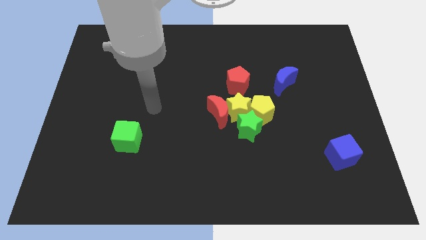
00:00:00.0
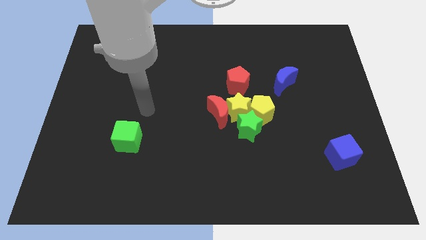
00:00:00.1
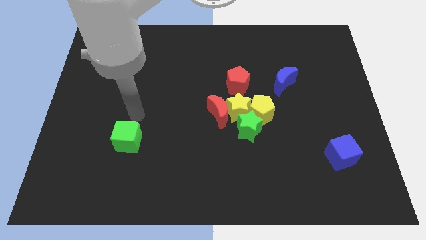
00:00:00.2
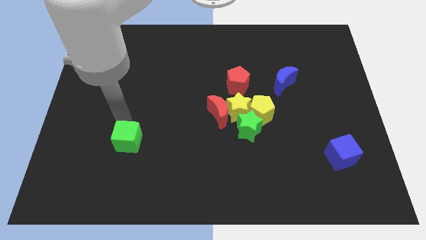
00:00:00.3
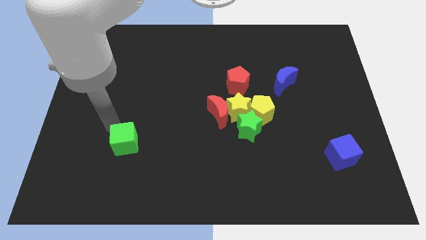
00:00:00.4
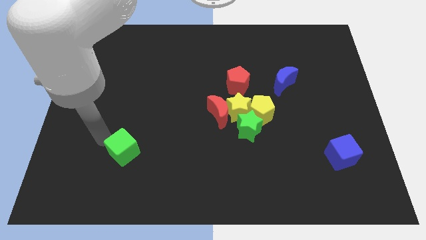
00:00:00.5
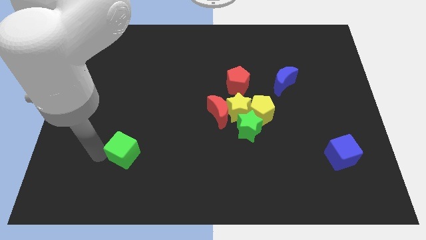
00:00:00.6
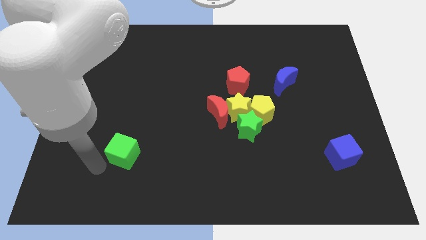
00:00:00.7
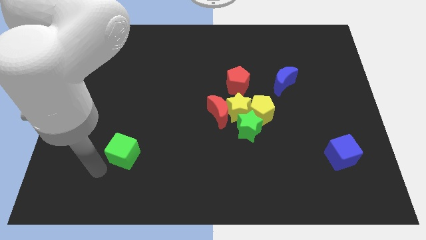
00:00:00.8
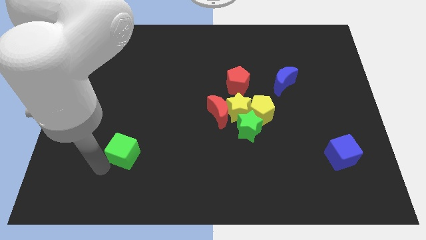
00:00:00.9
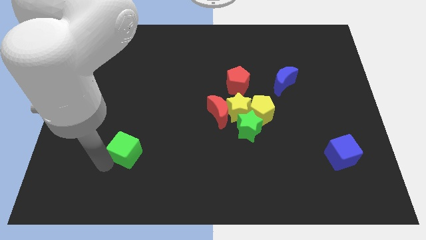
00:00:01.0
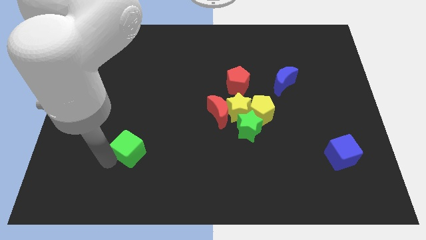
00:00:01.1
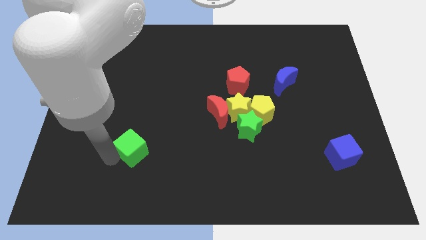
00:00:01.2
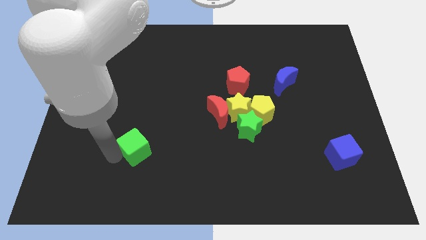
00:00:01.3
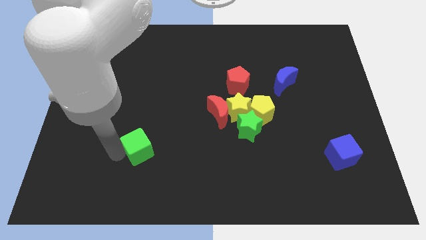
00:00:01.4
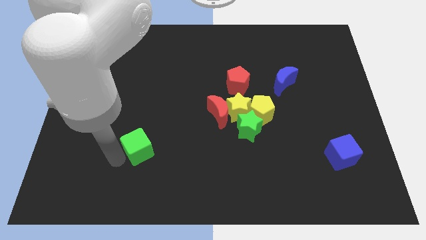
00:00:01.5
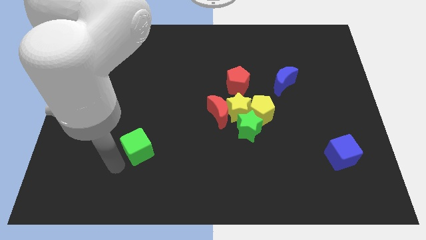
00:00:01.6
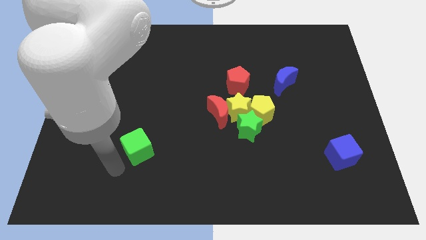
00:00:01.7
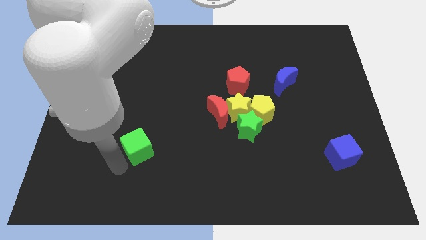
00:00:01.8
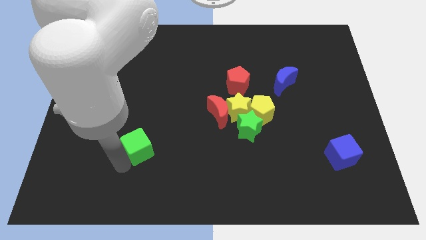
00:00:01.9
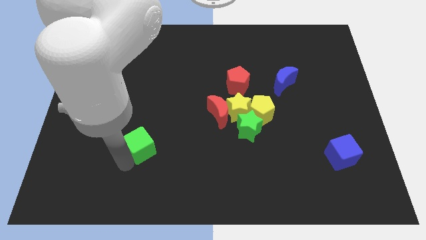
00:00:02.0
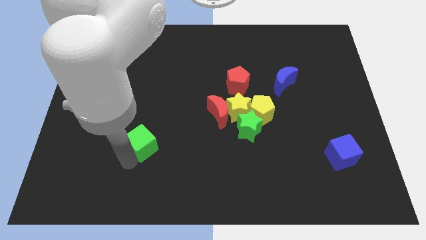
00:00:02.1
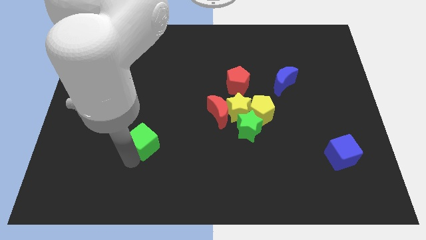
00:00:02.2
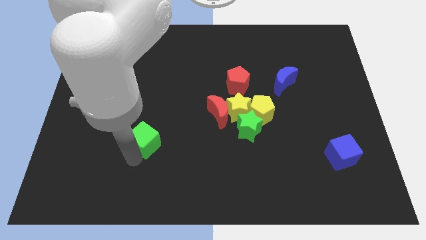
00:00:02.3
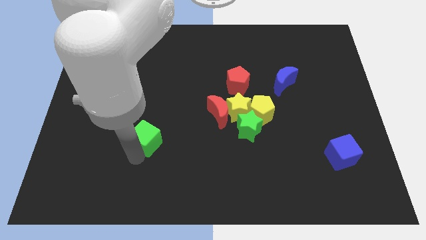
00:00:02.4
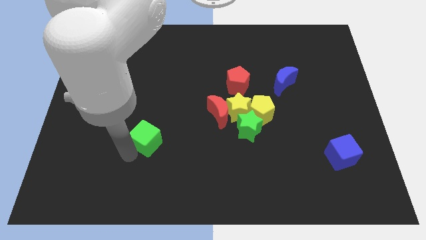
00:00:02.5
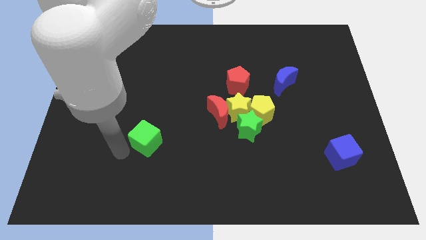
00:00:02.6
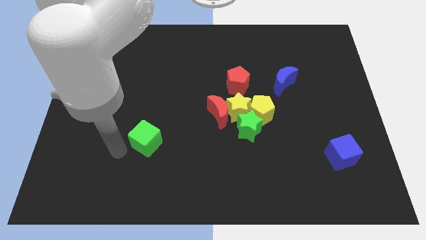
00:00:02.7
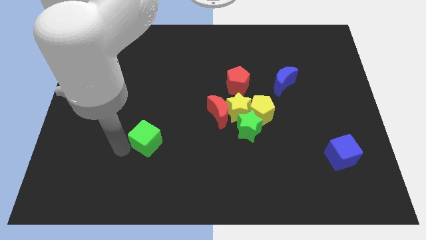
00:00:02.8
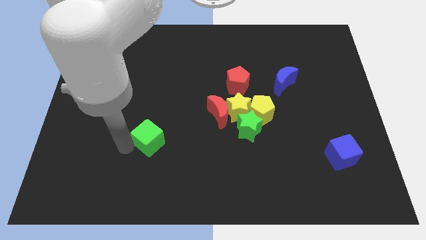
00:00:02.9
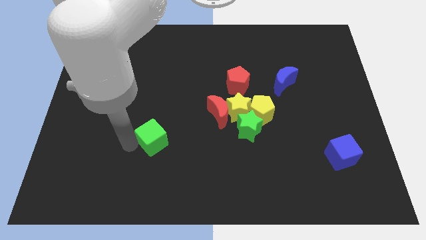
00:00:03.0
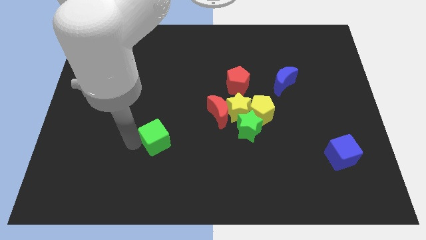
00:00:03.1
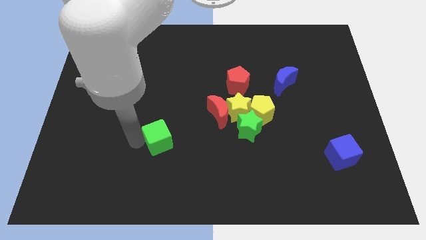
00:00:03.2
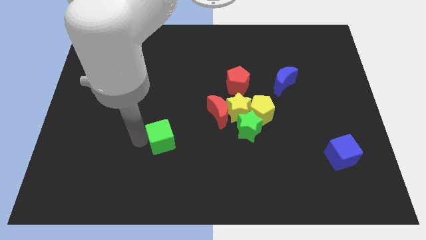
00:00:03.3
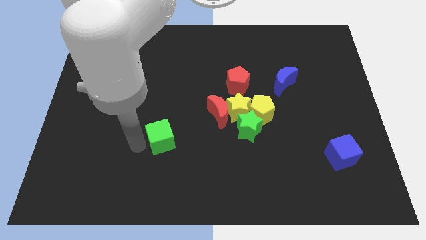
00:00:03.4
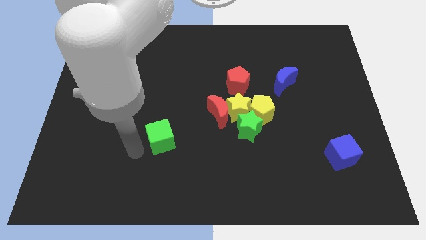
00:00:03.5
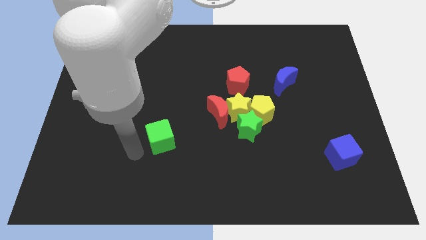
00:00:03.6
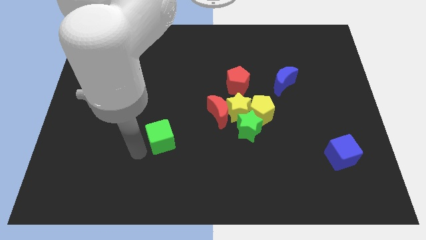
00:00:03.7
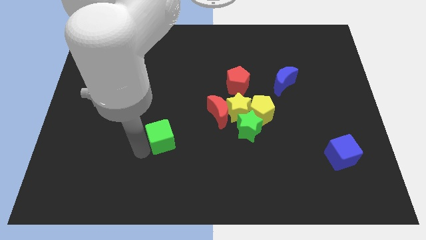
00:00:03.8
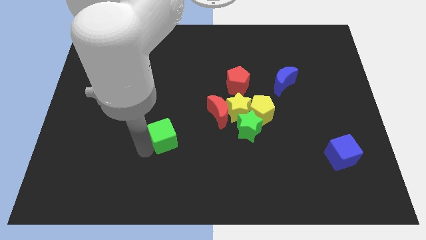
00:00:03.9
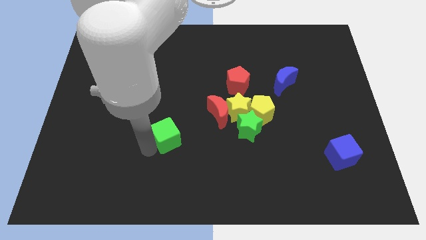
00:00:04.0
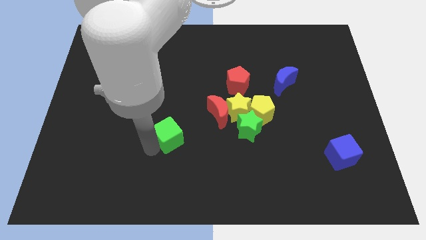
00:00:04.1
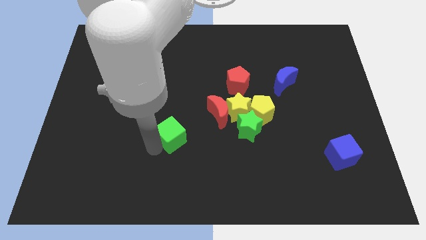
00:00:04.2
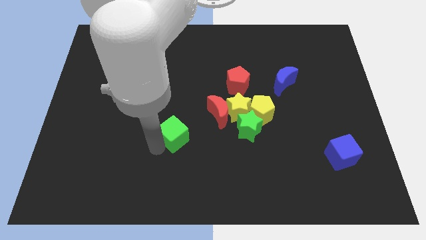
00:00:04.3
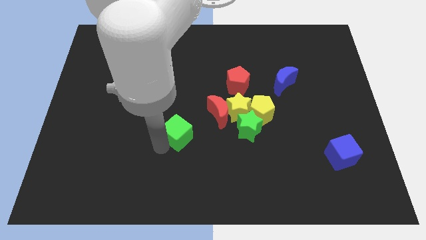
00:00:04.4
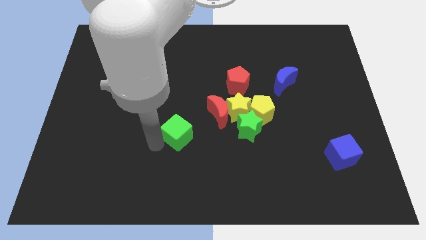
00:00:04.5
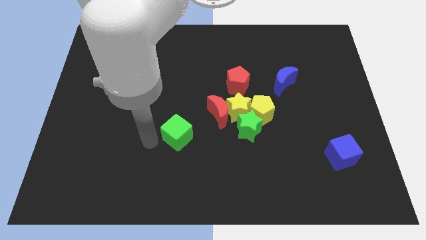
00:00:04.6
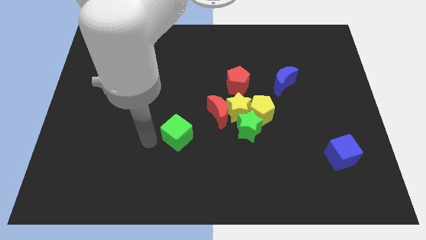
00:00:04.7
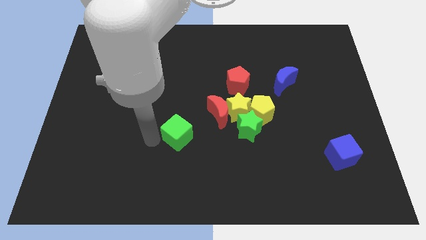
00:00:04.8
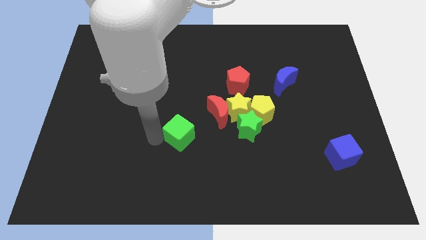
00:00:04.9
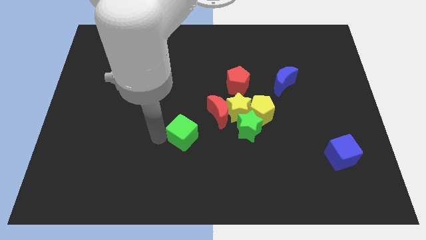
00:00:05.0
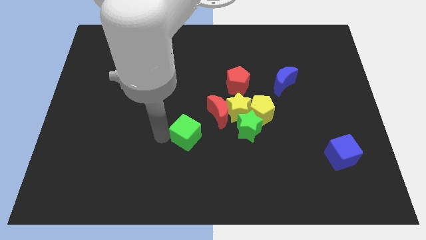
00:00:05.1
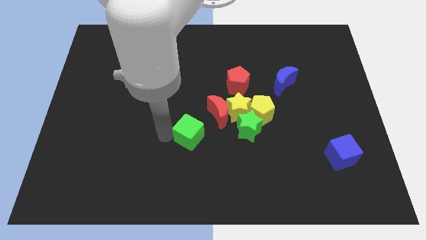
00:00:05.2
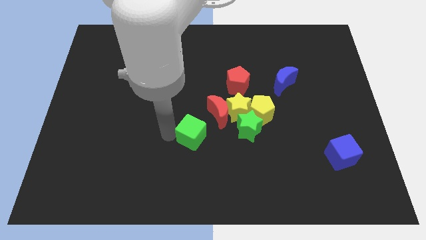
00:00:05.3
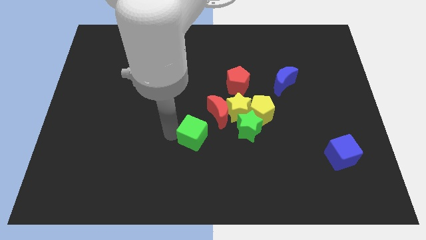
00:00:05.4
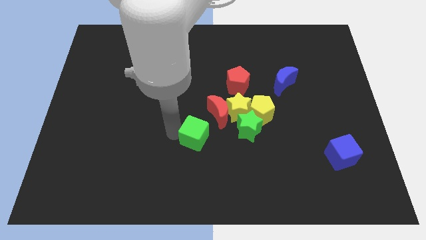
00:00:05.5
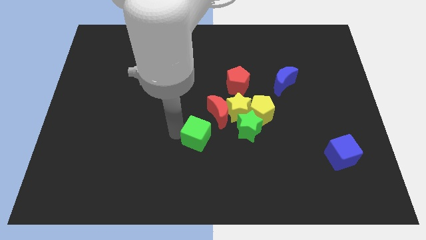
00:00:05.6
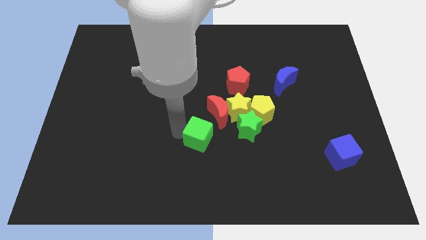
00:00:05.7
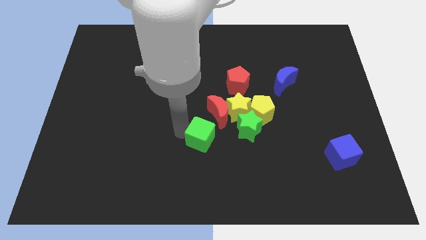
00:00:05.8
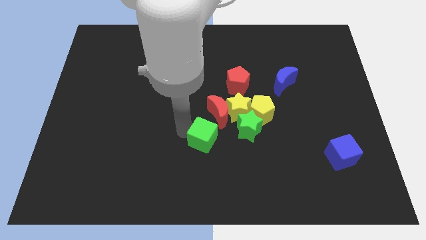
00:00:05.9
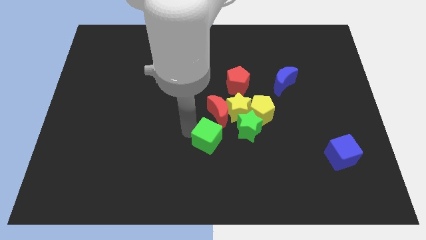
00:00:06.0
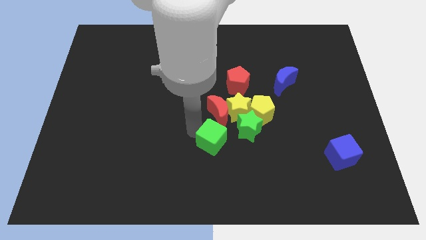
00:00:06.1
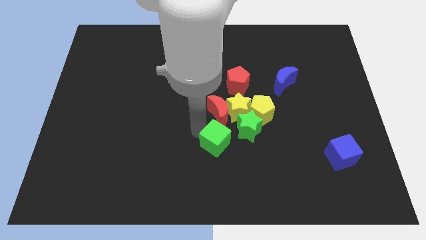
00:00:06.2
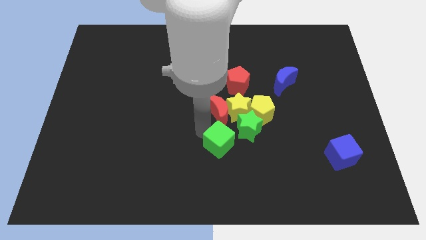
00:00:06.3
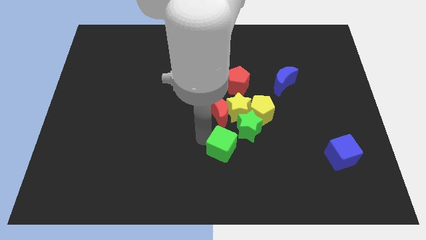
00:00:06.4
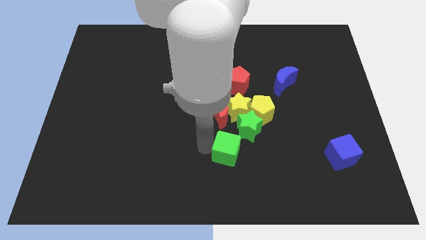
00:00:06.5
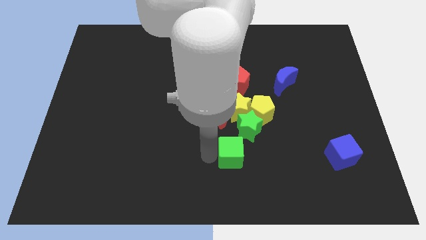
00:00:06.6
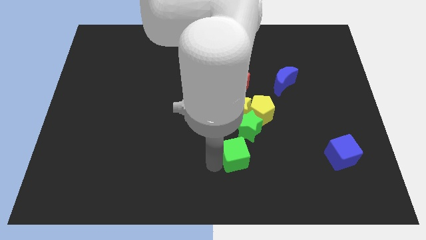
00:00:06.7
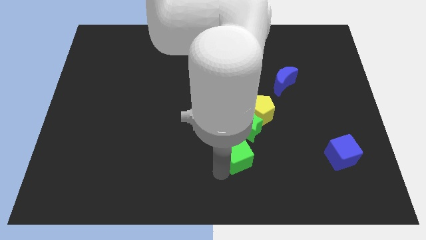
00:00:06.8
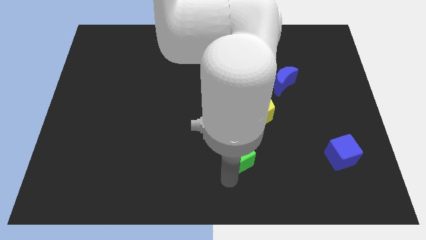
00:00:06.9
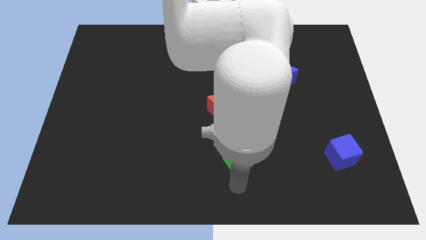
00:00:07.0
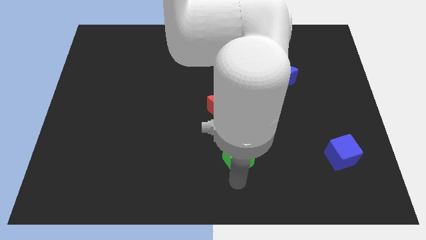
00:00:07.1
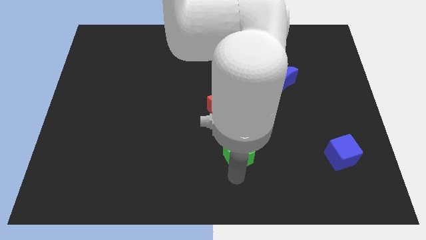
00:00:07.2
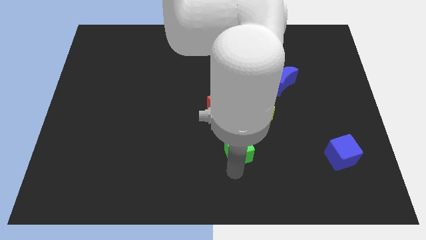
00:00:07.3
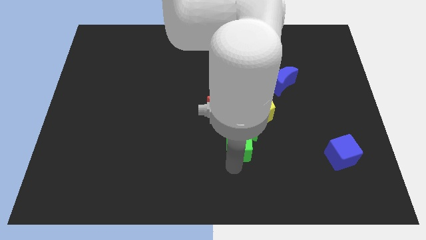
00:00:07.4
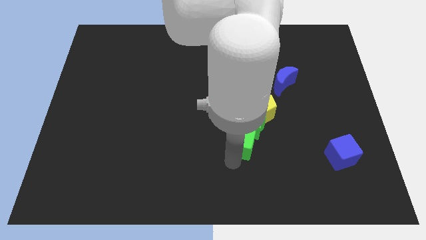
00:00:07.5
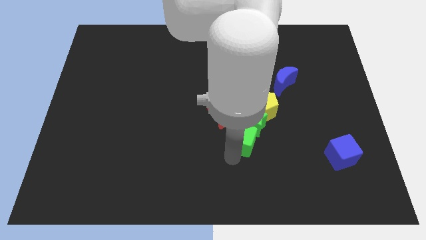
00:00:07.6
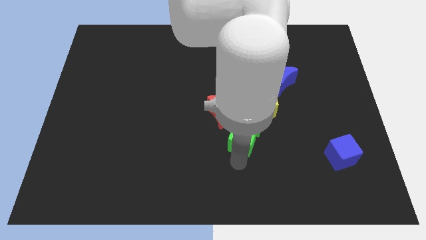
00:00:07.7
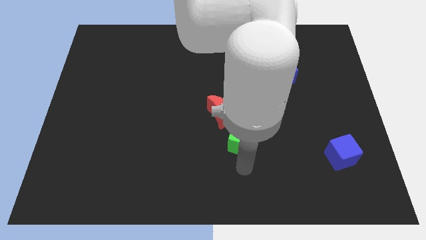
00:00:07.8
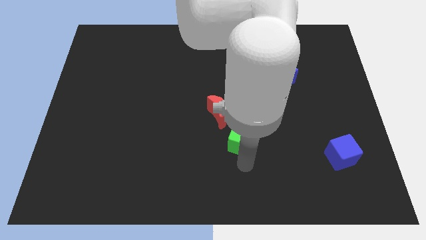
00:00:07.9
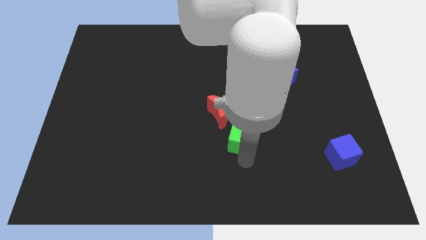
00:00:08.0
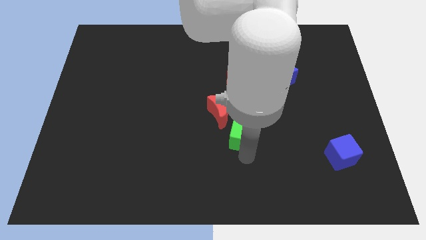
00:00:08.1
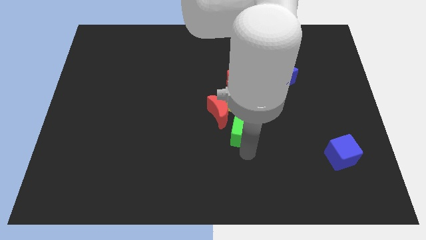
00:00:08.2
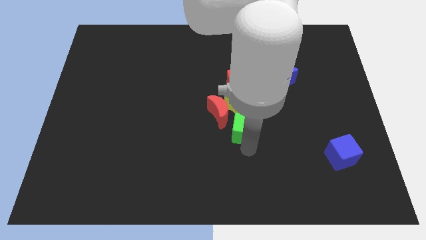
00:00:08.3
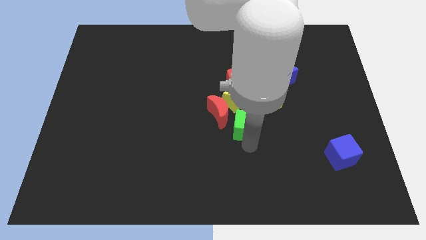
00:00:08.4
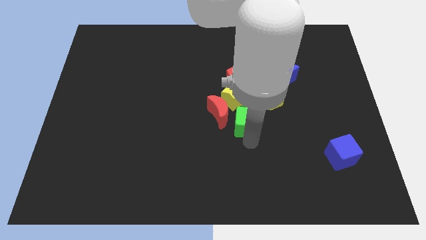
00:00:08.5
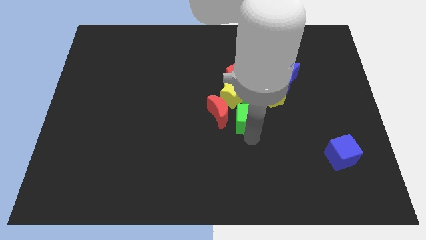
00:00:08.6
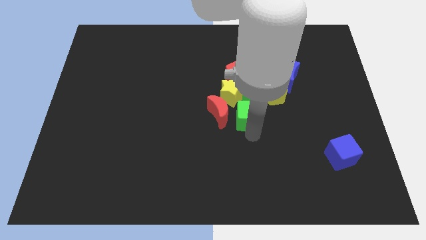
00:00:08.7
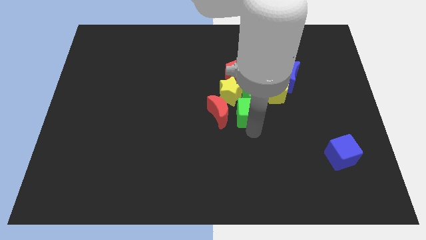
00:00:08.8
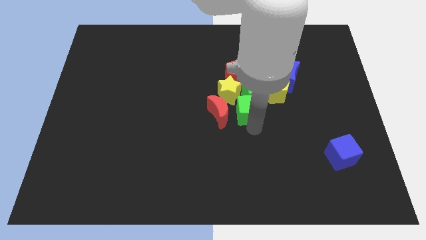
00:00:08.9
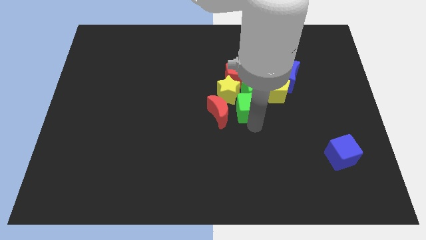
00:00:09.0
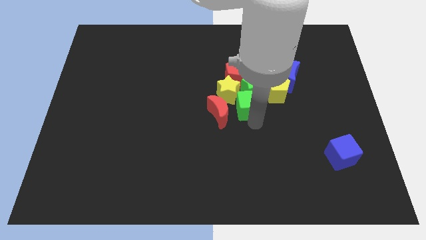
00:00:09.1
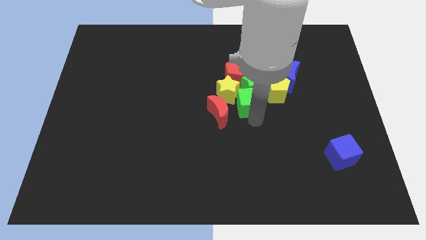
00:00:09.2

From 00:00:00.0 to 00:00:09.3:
put the green cube next to the yellow star
